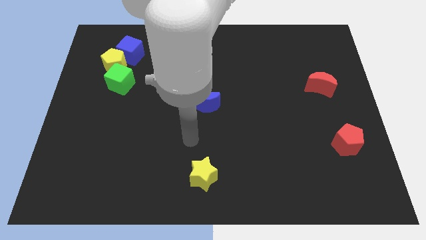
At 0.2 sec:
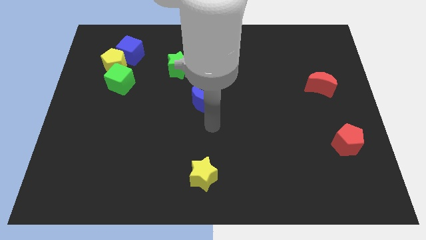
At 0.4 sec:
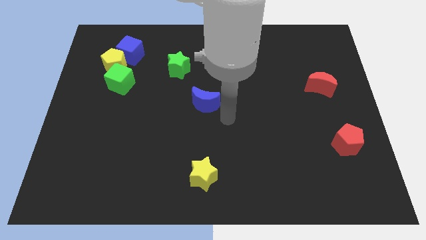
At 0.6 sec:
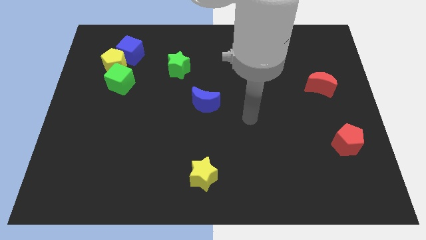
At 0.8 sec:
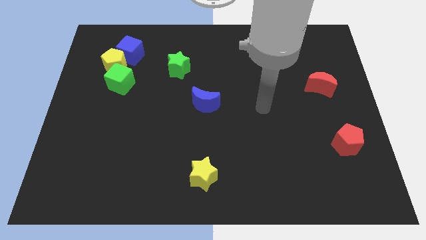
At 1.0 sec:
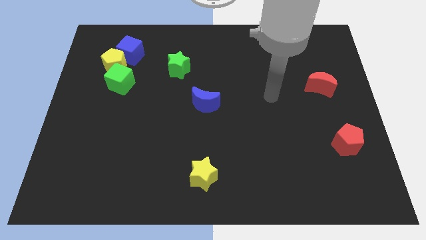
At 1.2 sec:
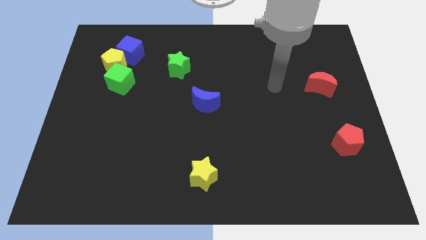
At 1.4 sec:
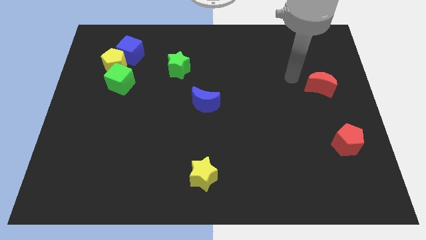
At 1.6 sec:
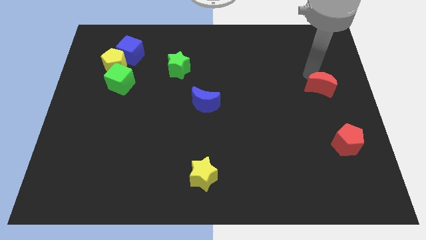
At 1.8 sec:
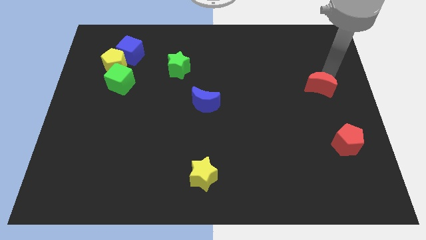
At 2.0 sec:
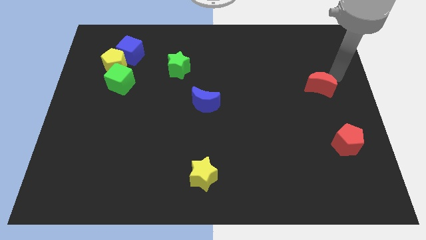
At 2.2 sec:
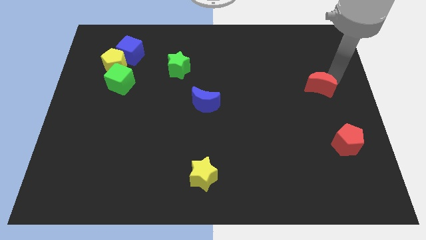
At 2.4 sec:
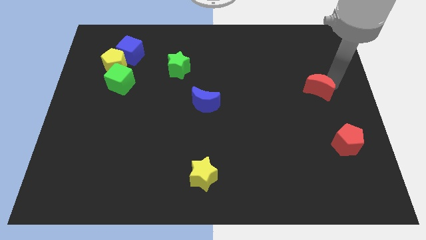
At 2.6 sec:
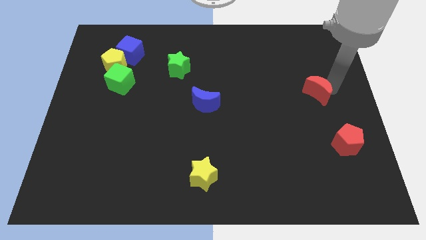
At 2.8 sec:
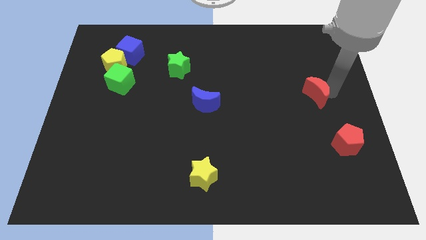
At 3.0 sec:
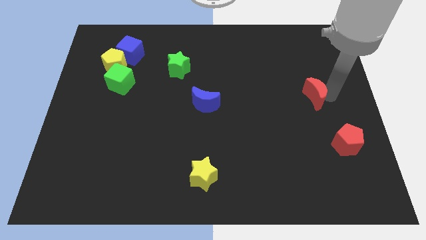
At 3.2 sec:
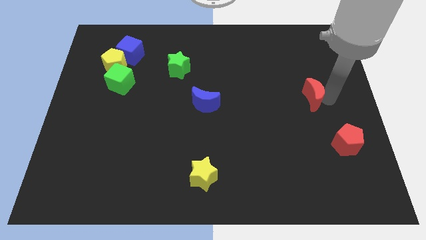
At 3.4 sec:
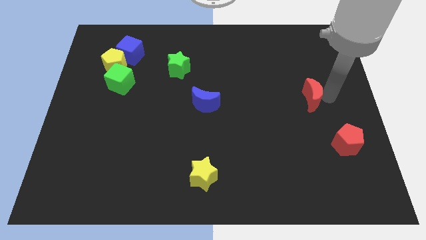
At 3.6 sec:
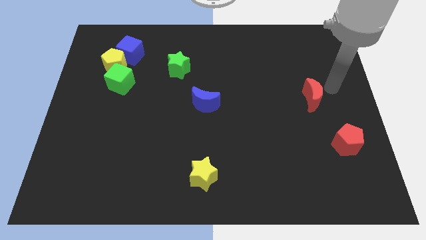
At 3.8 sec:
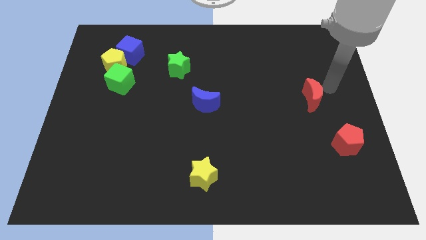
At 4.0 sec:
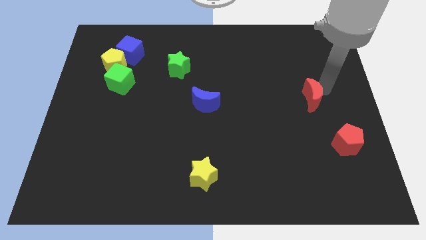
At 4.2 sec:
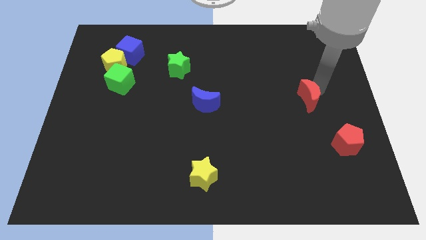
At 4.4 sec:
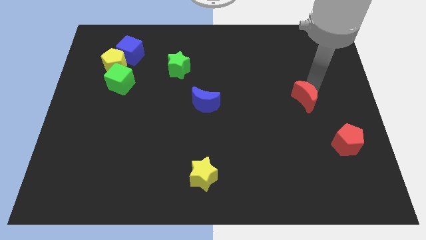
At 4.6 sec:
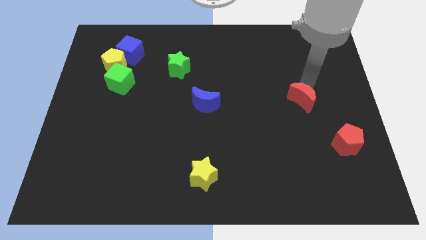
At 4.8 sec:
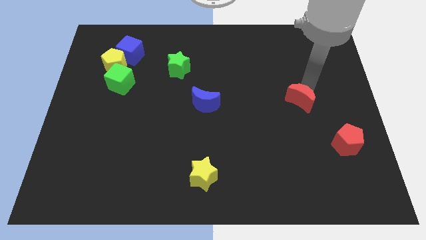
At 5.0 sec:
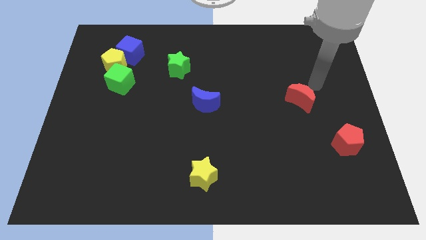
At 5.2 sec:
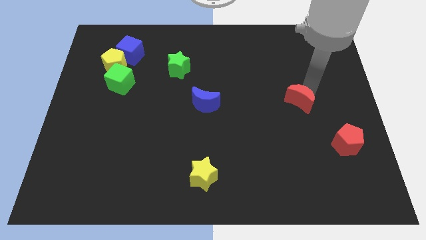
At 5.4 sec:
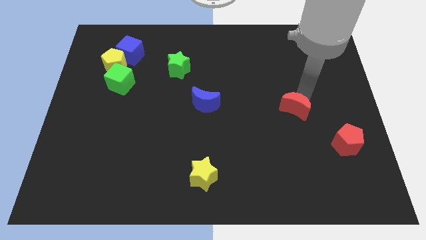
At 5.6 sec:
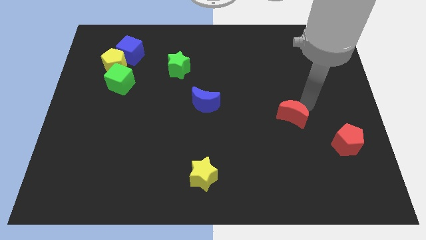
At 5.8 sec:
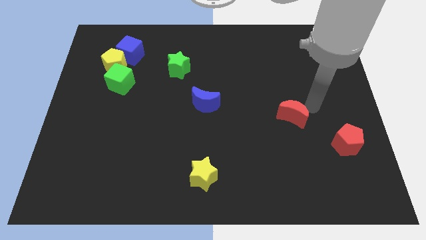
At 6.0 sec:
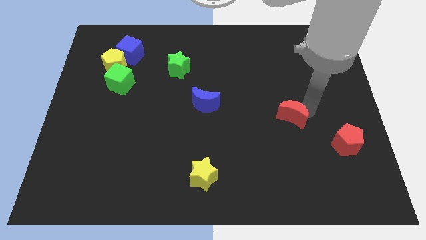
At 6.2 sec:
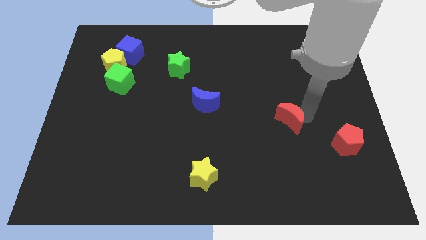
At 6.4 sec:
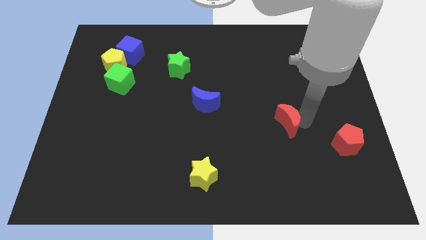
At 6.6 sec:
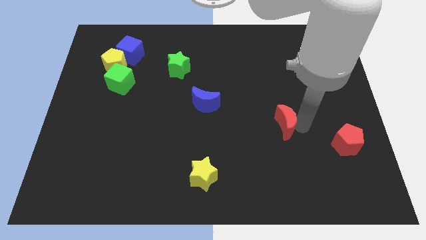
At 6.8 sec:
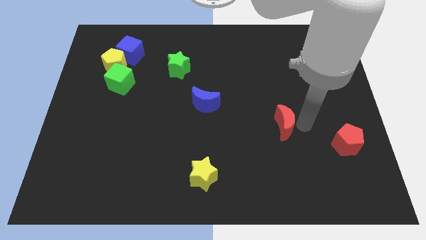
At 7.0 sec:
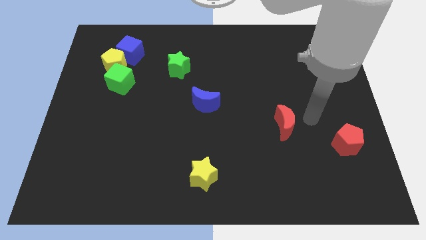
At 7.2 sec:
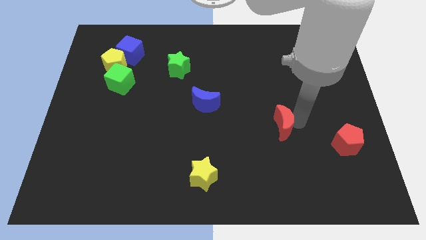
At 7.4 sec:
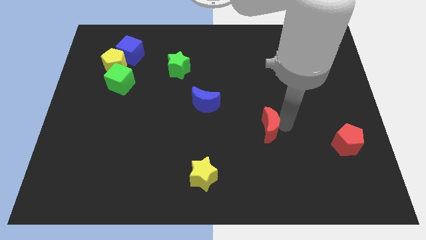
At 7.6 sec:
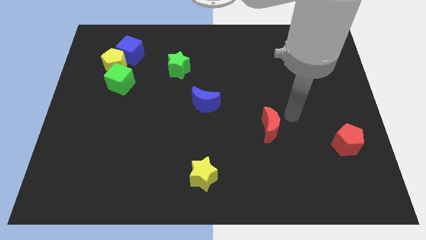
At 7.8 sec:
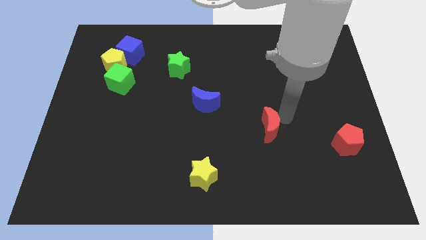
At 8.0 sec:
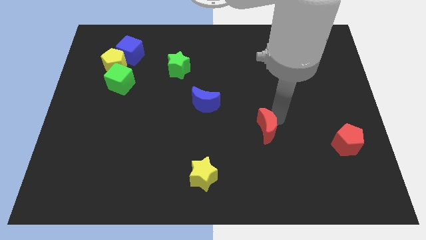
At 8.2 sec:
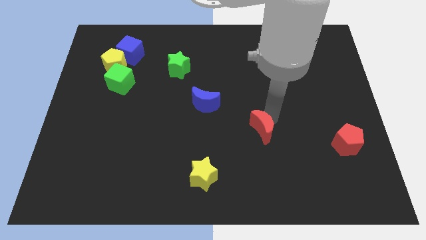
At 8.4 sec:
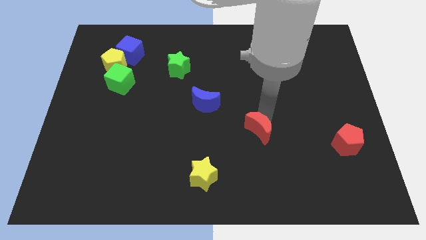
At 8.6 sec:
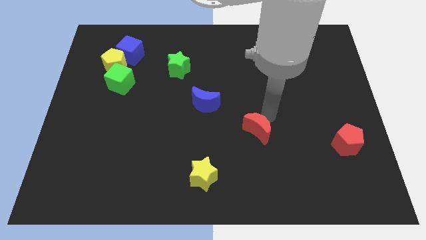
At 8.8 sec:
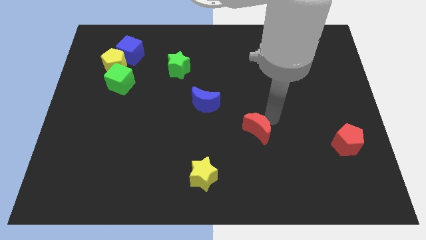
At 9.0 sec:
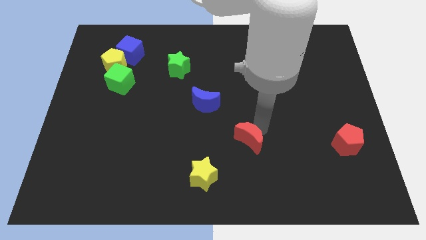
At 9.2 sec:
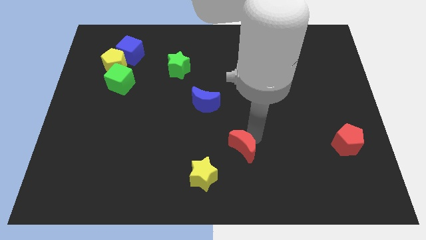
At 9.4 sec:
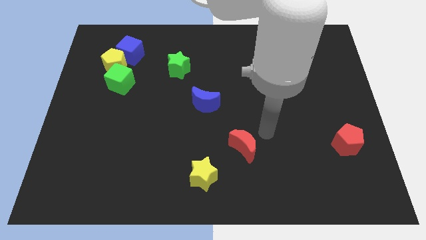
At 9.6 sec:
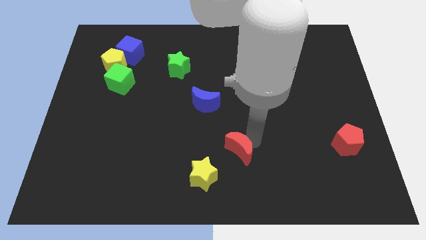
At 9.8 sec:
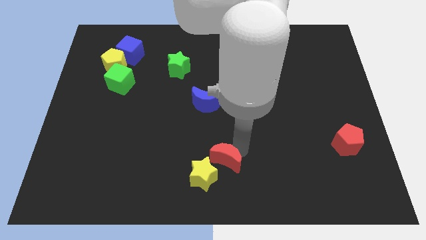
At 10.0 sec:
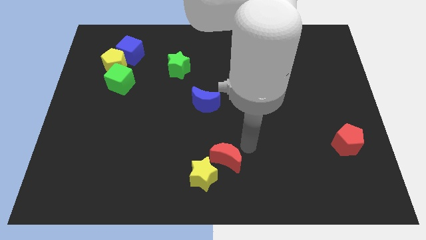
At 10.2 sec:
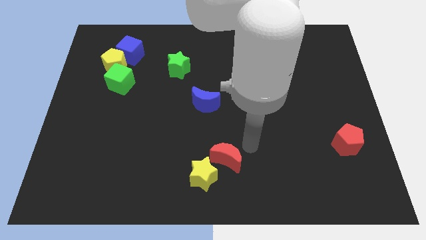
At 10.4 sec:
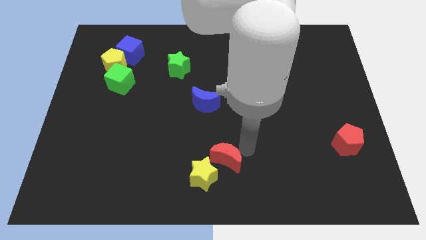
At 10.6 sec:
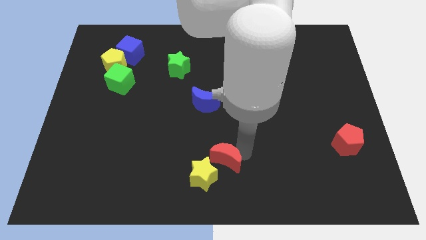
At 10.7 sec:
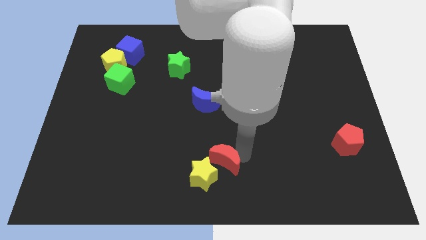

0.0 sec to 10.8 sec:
slide the red moon next to the yellow star

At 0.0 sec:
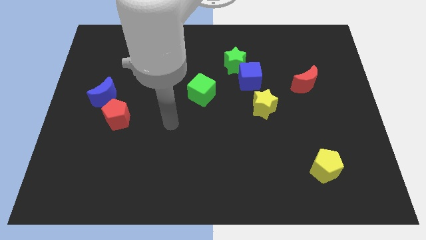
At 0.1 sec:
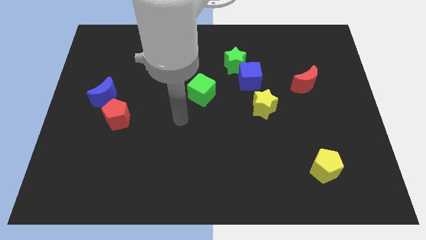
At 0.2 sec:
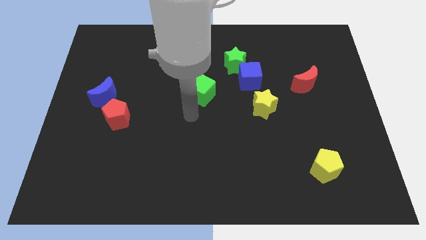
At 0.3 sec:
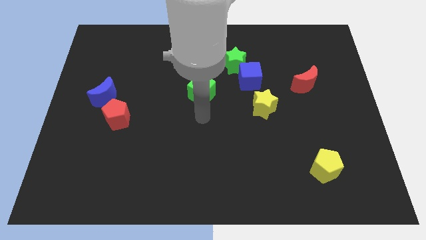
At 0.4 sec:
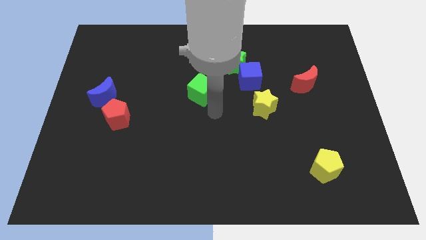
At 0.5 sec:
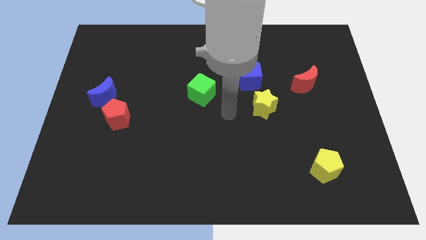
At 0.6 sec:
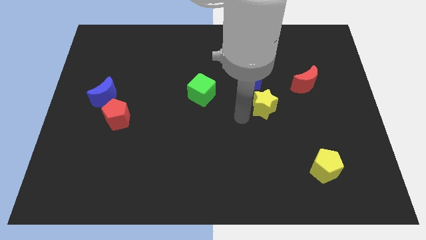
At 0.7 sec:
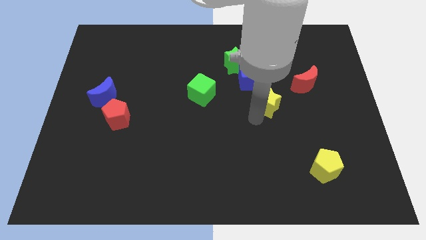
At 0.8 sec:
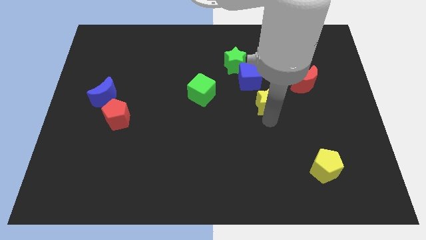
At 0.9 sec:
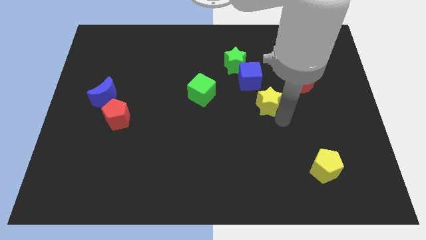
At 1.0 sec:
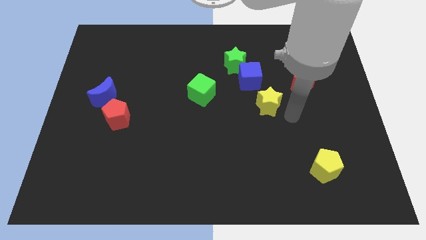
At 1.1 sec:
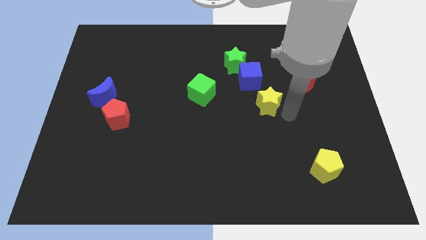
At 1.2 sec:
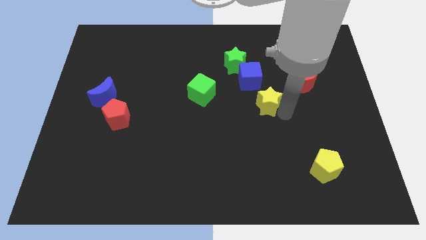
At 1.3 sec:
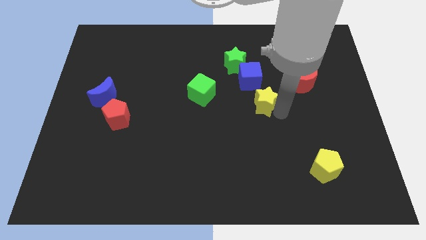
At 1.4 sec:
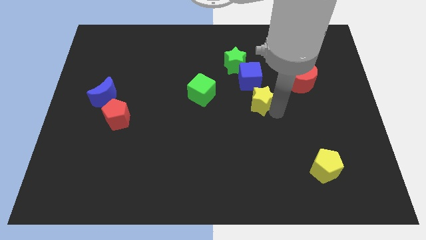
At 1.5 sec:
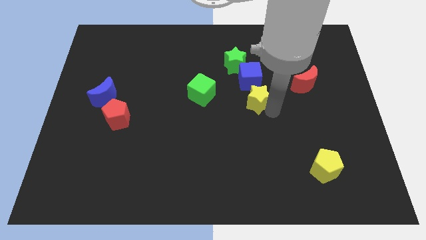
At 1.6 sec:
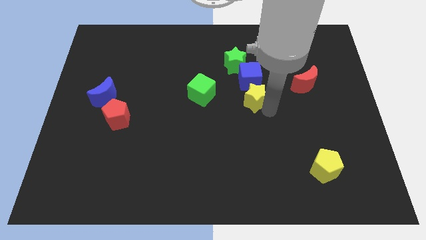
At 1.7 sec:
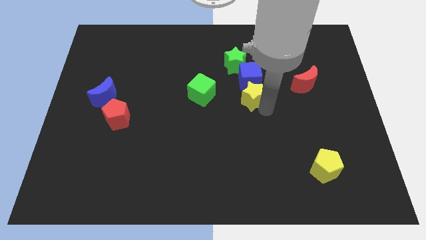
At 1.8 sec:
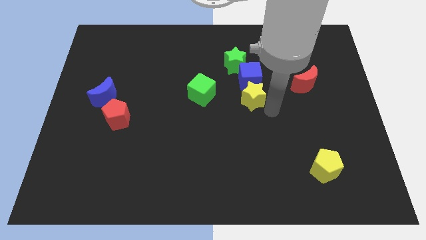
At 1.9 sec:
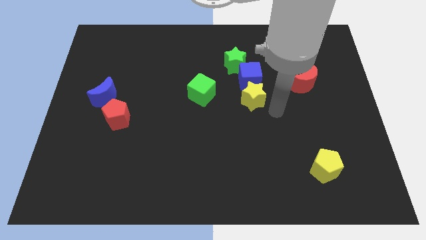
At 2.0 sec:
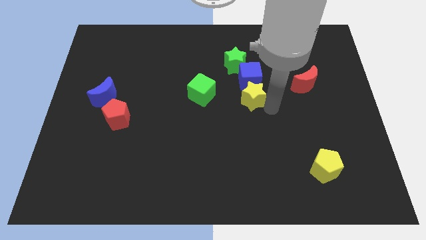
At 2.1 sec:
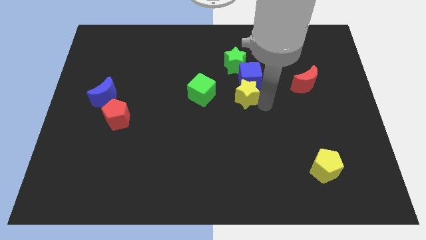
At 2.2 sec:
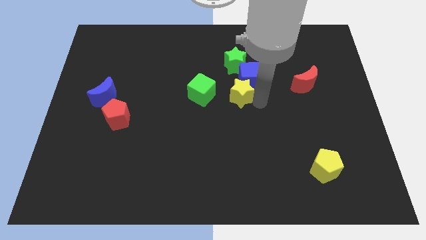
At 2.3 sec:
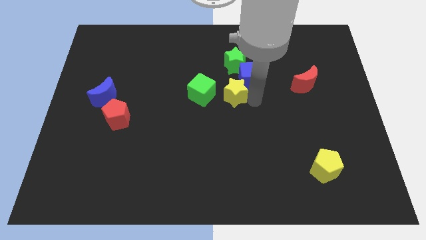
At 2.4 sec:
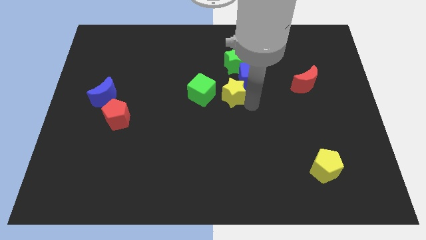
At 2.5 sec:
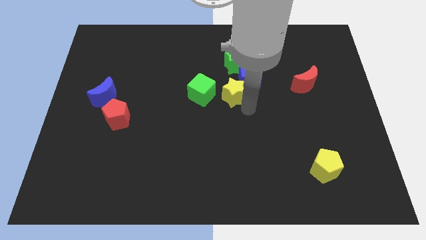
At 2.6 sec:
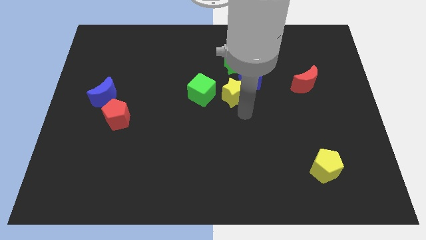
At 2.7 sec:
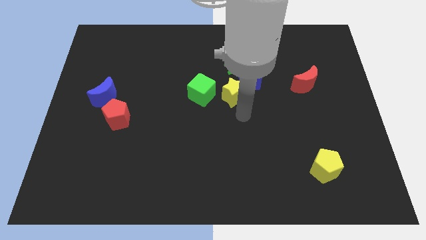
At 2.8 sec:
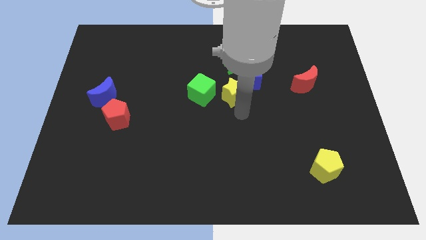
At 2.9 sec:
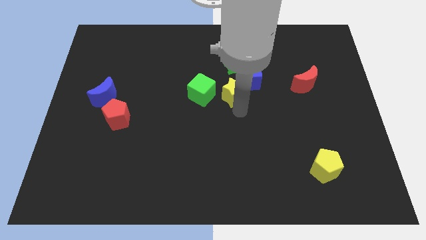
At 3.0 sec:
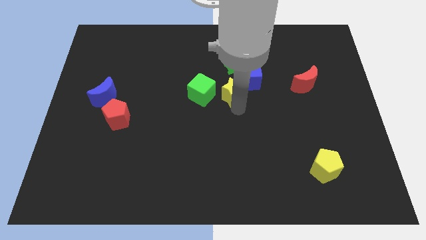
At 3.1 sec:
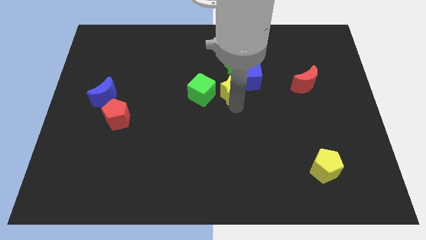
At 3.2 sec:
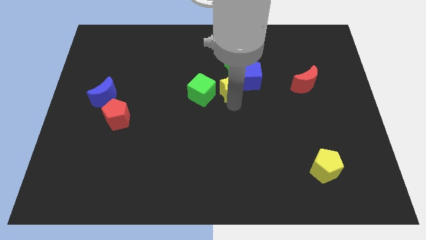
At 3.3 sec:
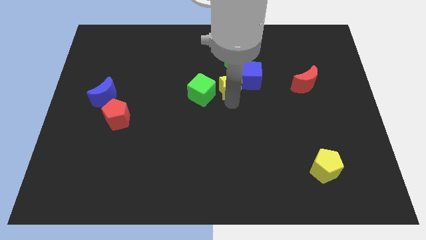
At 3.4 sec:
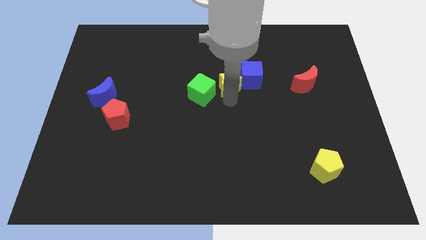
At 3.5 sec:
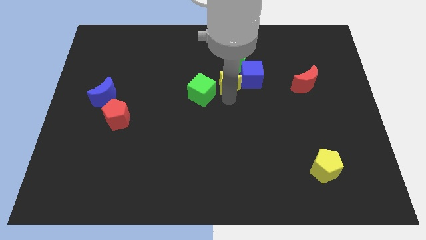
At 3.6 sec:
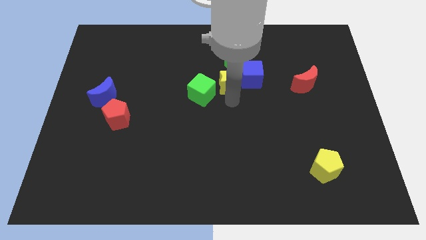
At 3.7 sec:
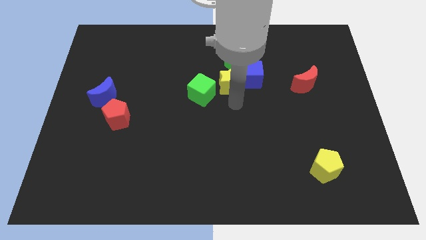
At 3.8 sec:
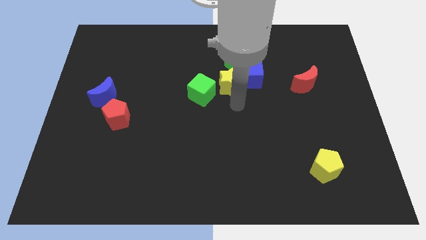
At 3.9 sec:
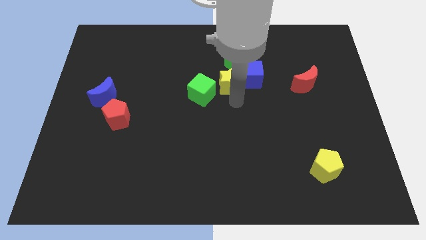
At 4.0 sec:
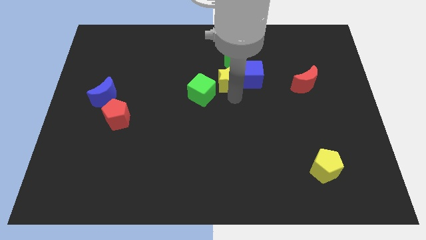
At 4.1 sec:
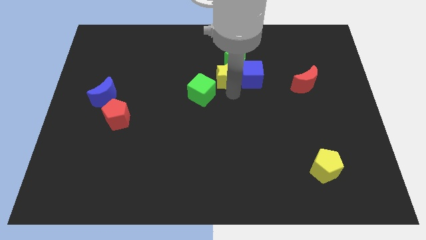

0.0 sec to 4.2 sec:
put the yellow star close to the green star
